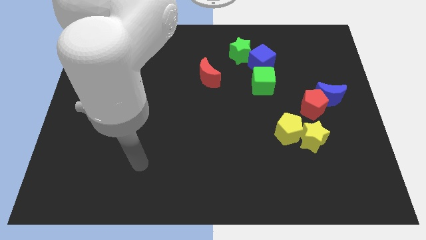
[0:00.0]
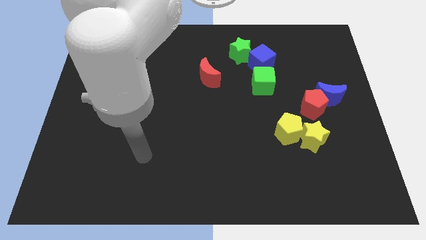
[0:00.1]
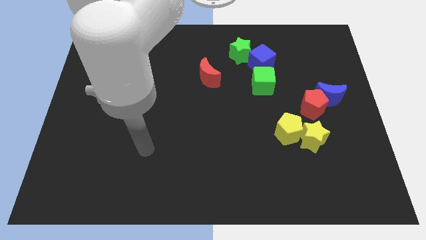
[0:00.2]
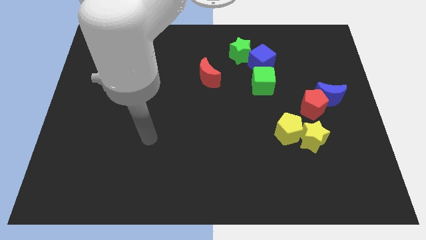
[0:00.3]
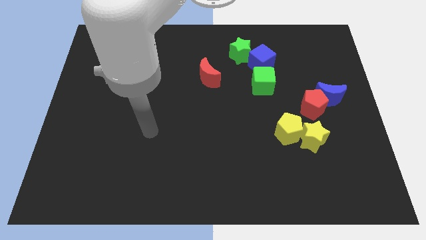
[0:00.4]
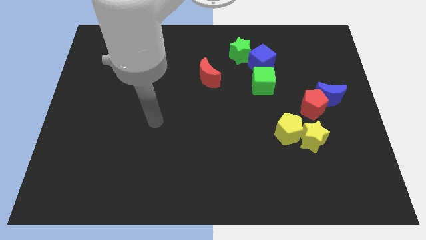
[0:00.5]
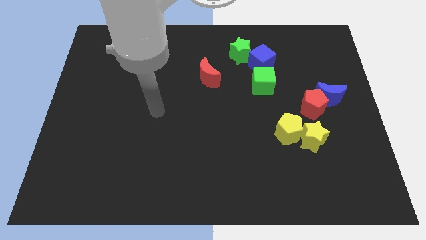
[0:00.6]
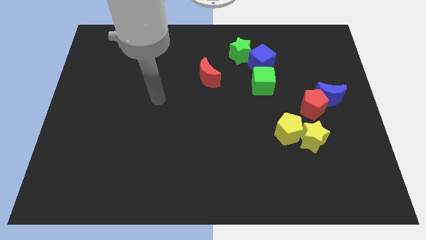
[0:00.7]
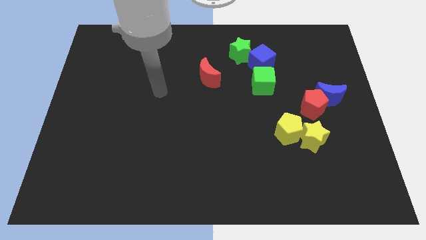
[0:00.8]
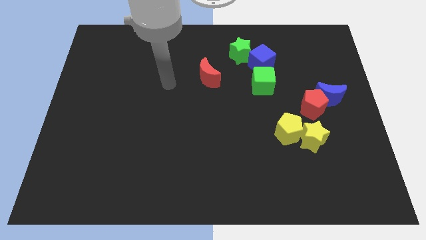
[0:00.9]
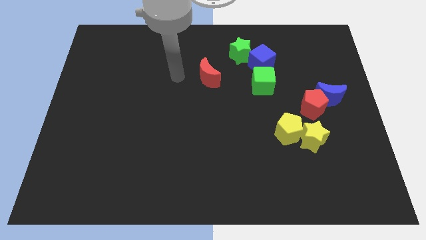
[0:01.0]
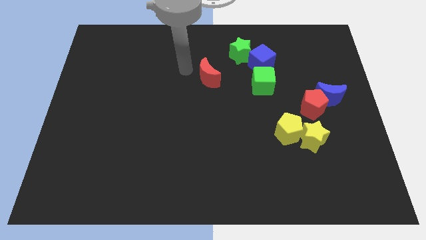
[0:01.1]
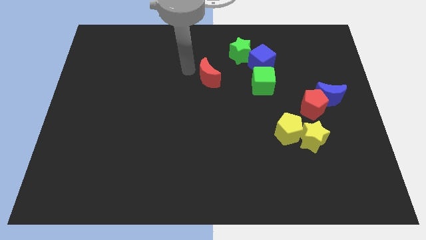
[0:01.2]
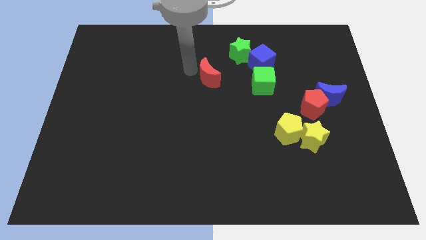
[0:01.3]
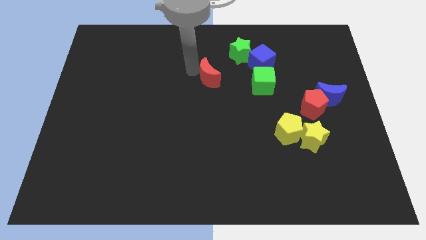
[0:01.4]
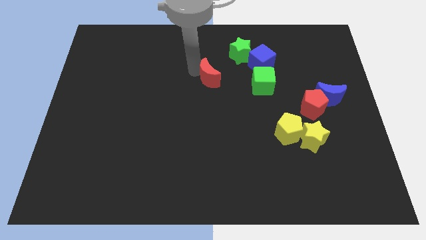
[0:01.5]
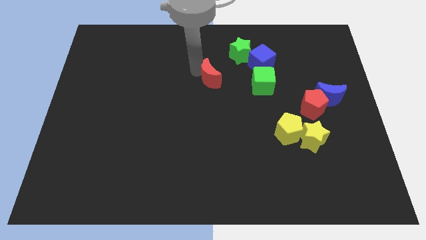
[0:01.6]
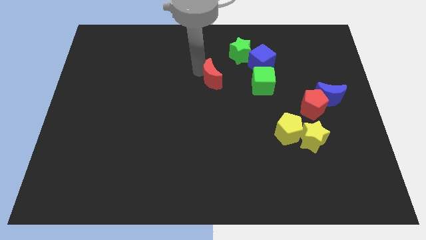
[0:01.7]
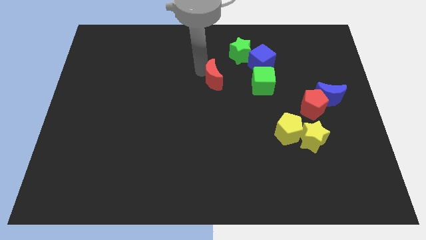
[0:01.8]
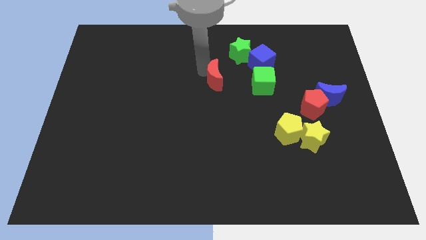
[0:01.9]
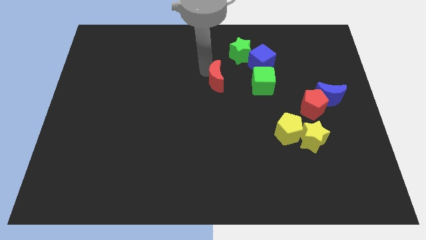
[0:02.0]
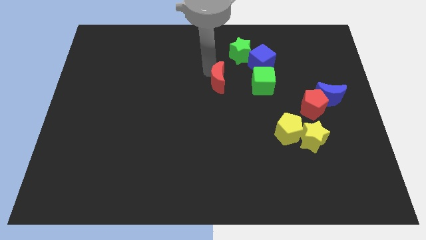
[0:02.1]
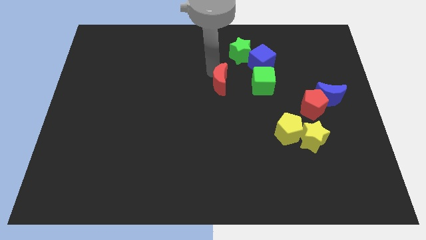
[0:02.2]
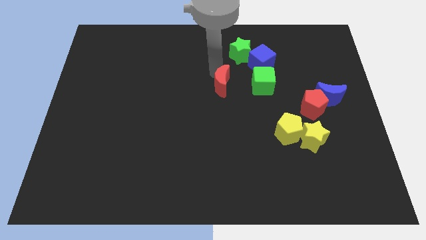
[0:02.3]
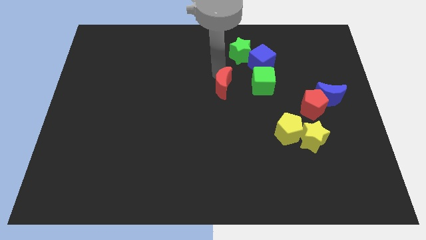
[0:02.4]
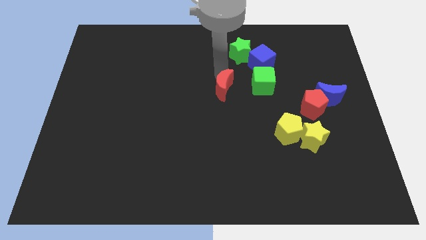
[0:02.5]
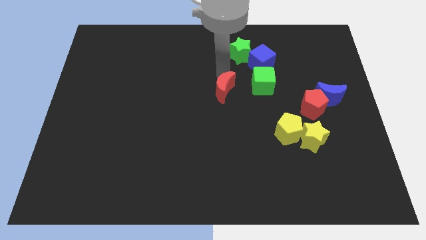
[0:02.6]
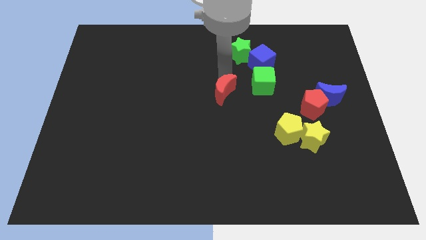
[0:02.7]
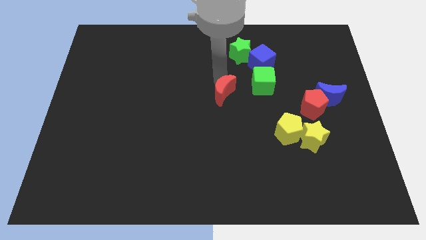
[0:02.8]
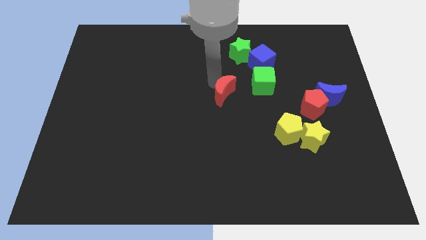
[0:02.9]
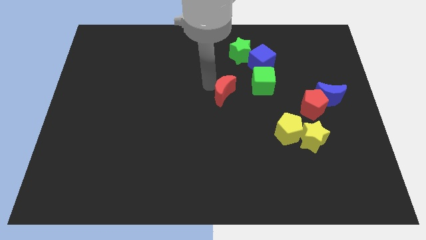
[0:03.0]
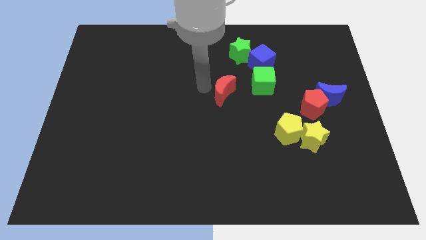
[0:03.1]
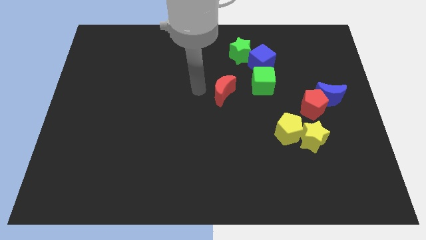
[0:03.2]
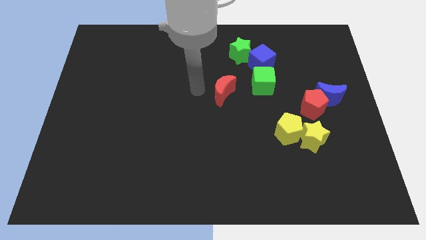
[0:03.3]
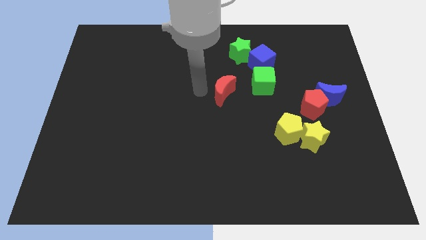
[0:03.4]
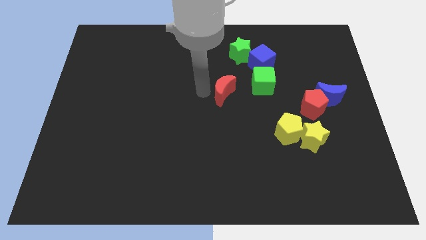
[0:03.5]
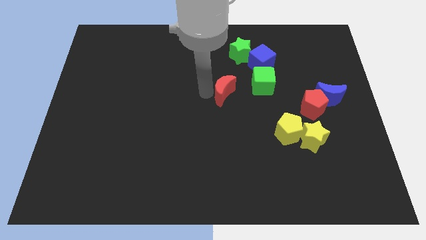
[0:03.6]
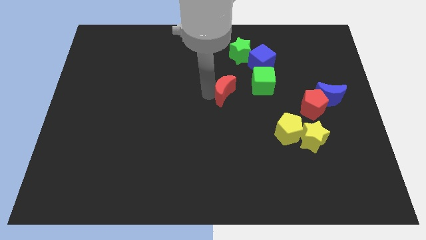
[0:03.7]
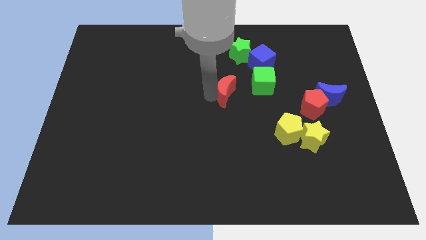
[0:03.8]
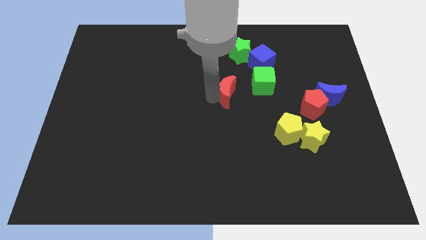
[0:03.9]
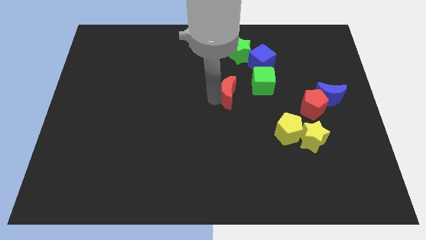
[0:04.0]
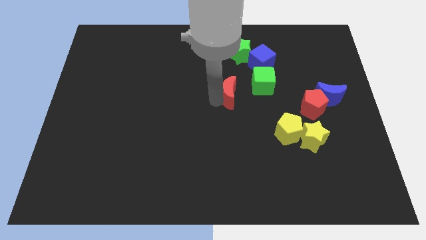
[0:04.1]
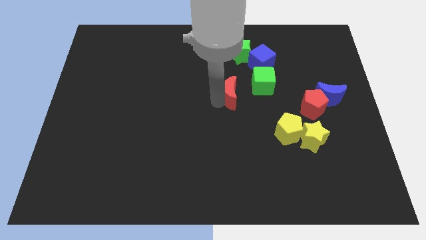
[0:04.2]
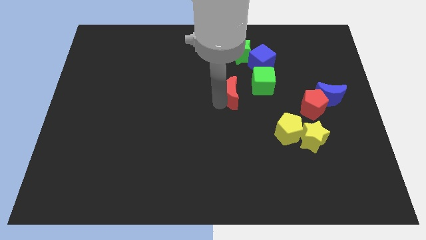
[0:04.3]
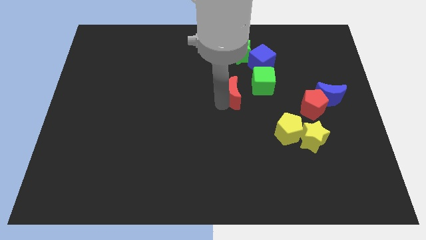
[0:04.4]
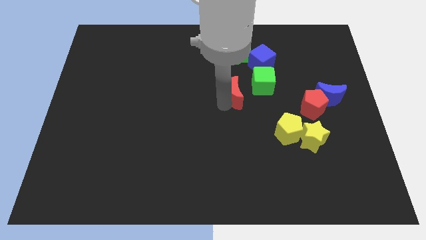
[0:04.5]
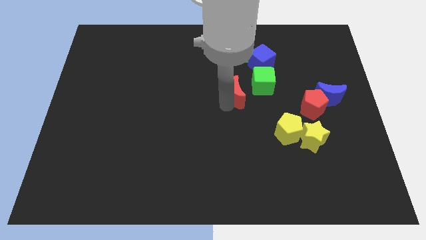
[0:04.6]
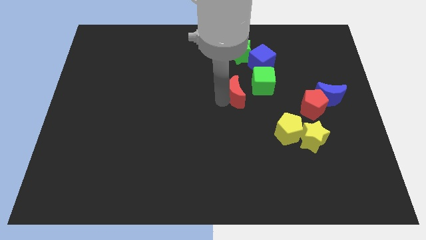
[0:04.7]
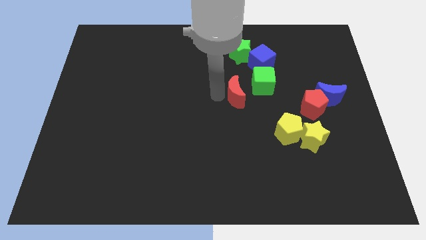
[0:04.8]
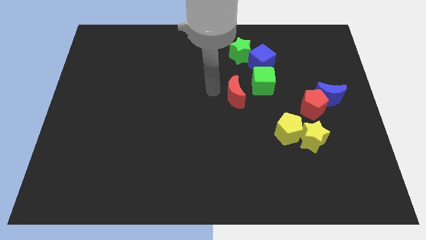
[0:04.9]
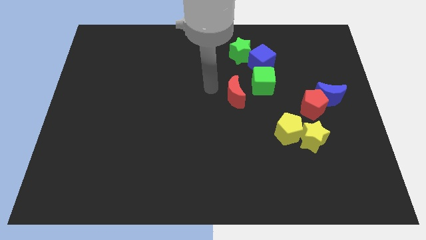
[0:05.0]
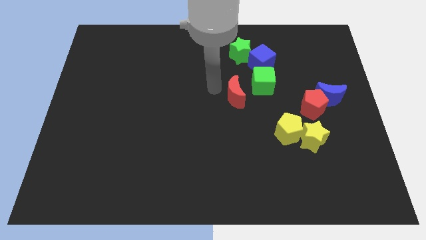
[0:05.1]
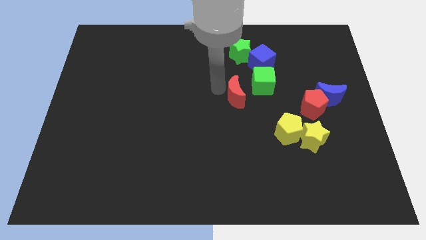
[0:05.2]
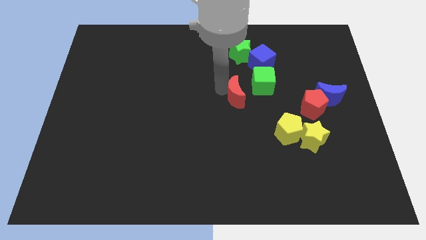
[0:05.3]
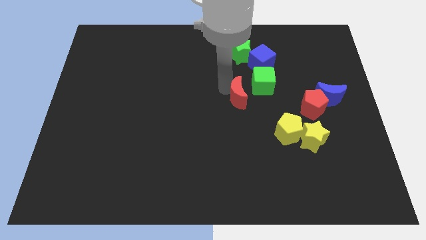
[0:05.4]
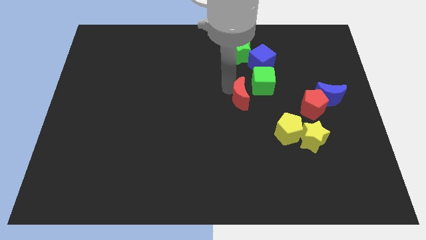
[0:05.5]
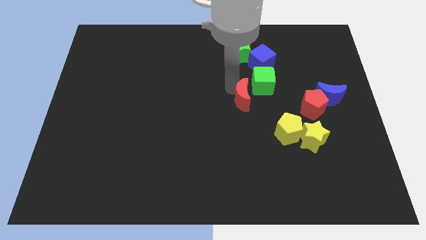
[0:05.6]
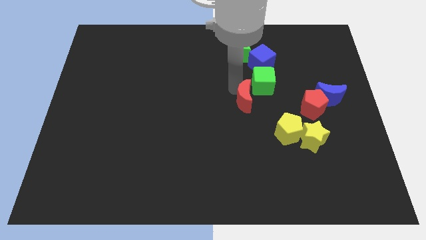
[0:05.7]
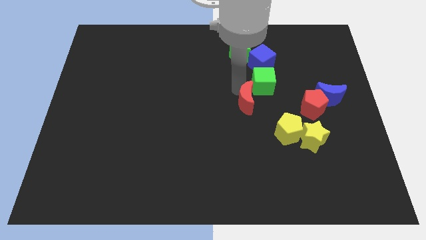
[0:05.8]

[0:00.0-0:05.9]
move the red moon just left of the red pentagon
